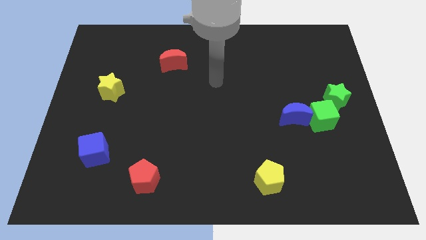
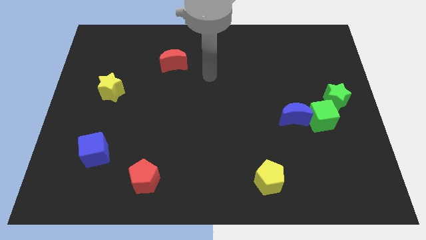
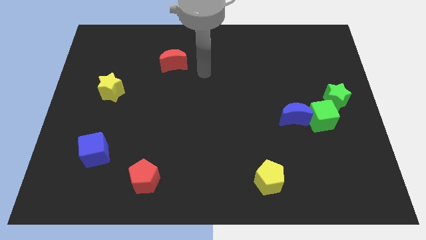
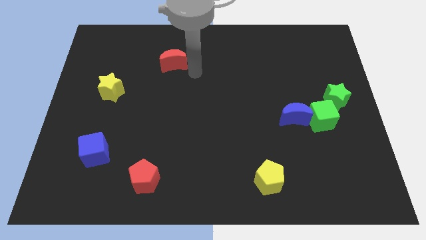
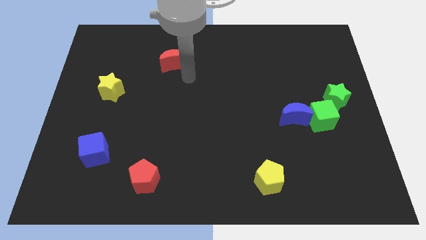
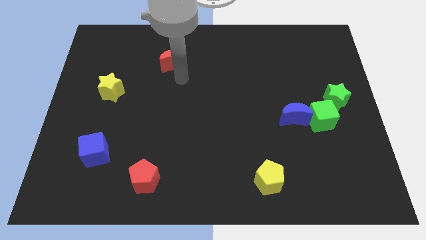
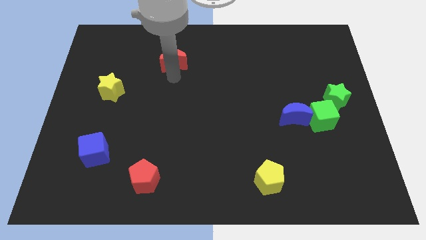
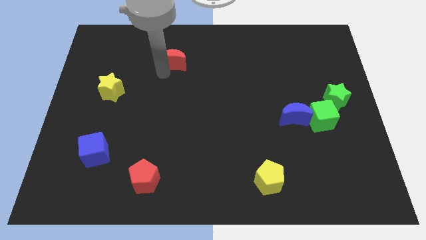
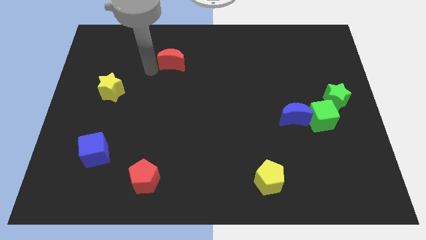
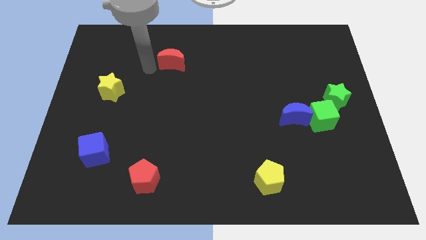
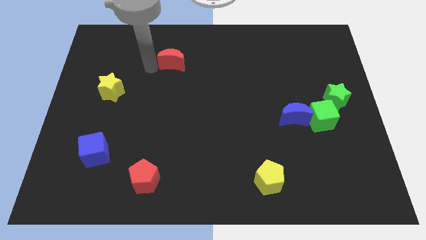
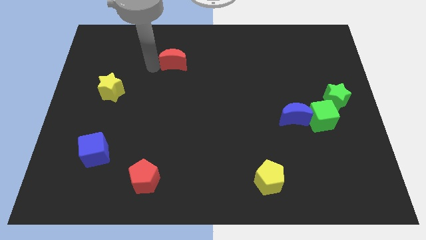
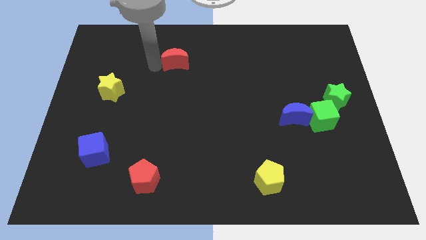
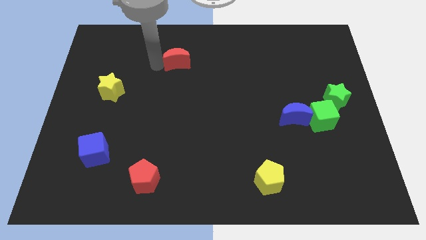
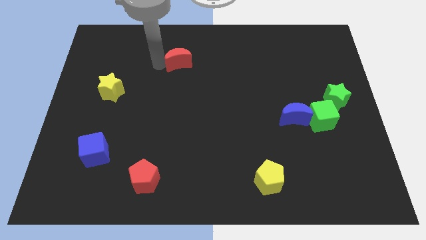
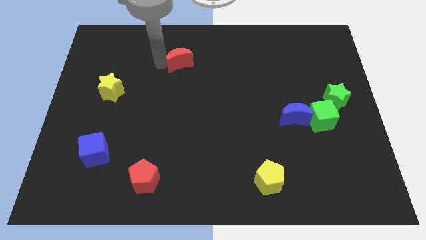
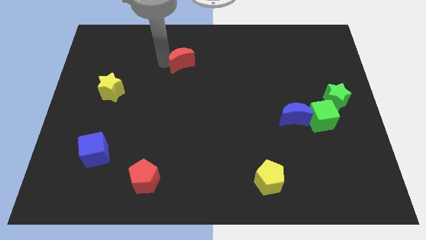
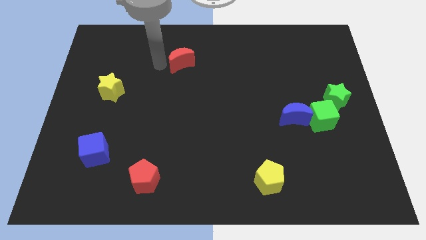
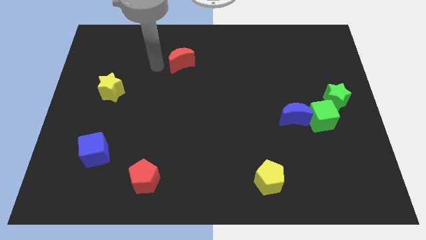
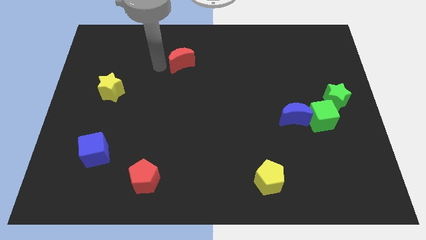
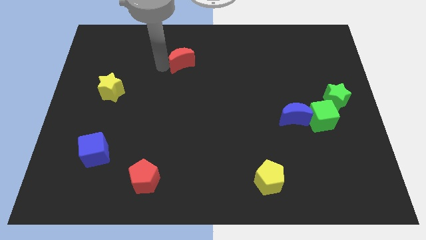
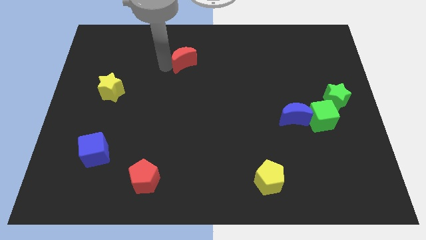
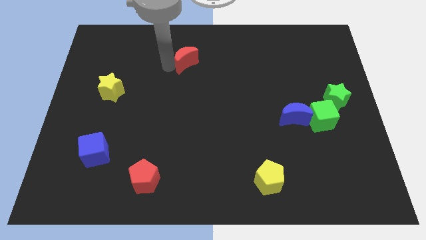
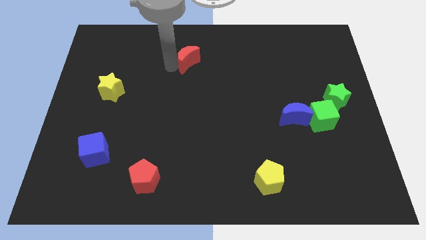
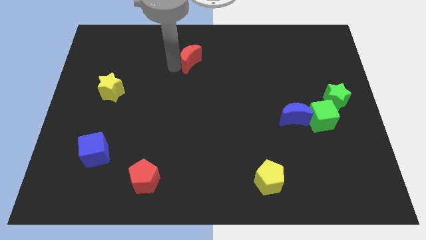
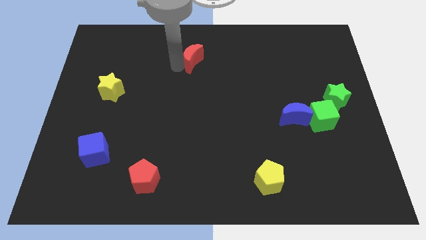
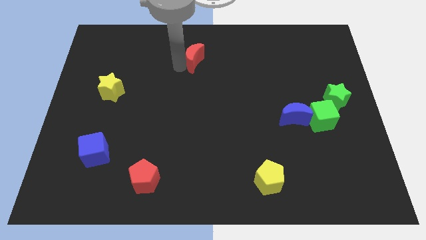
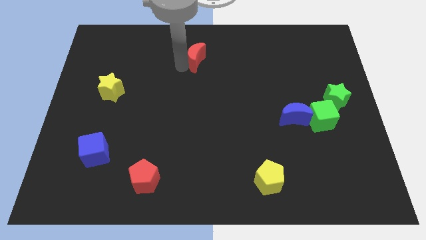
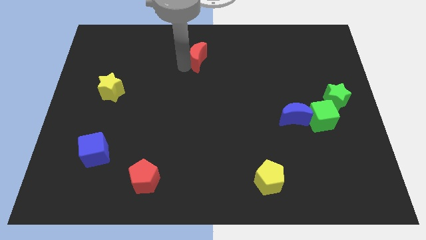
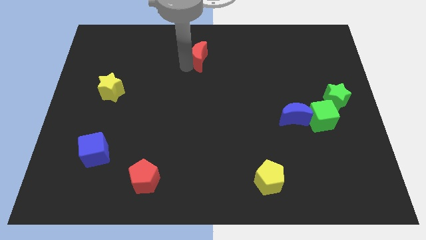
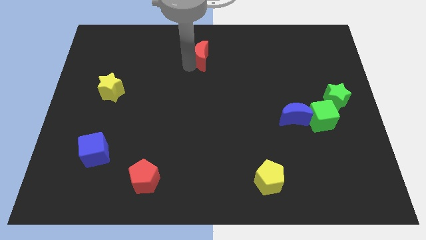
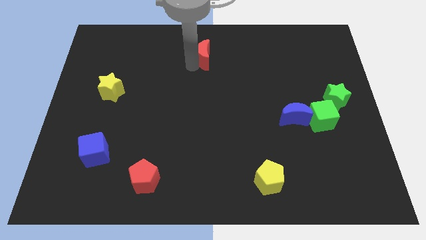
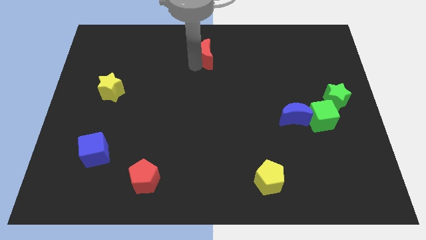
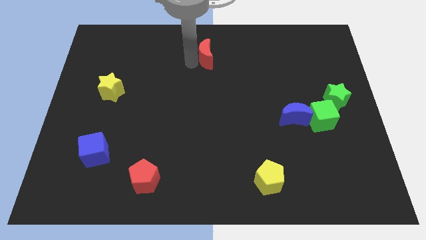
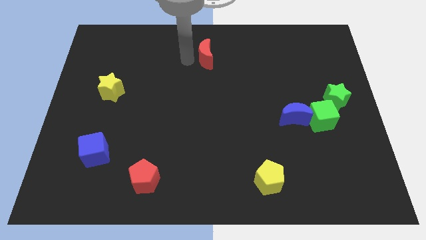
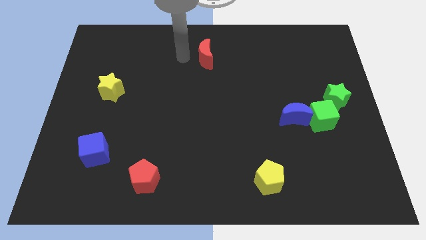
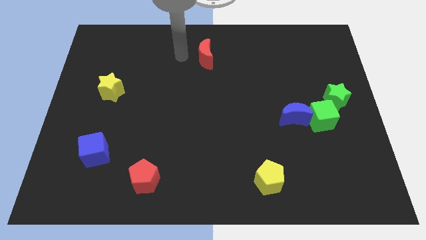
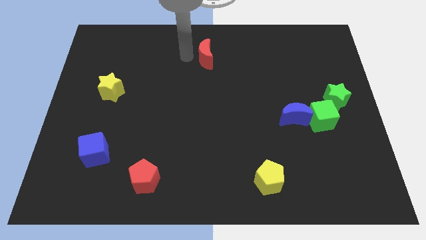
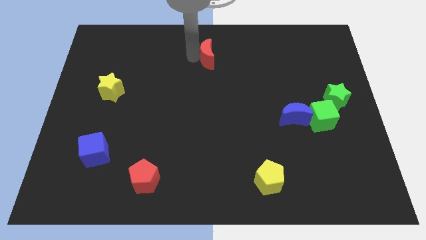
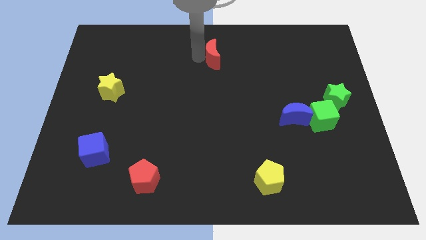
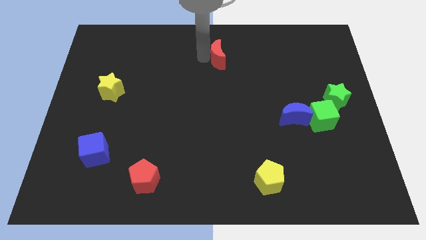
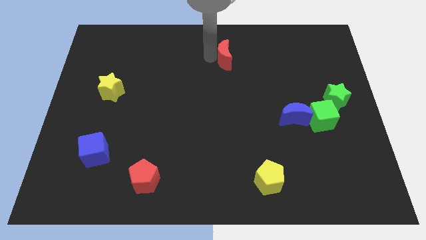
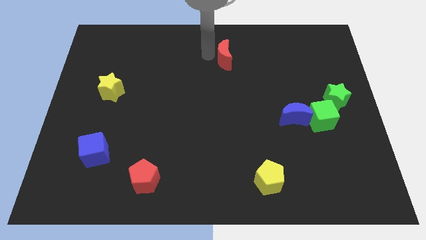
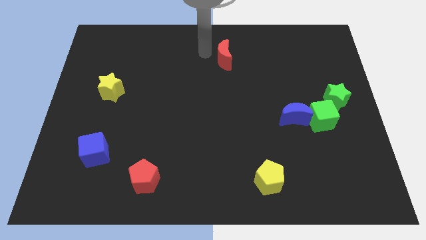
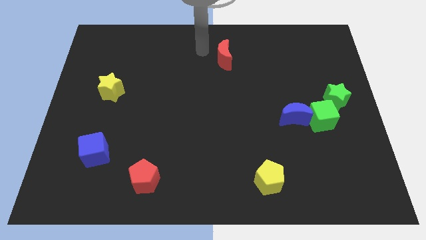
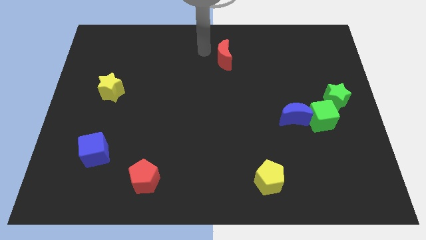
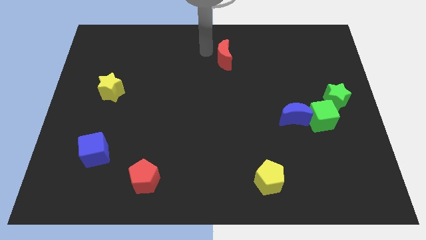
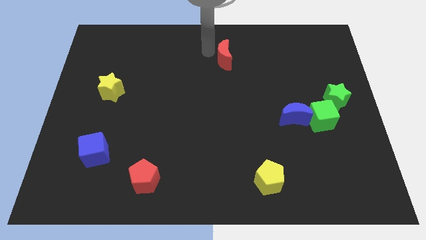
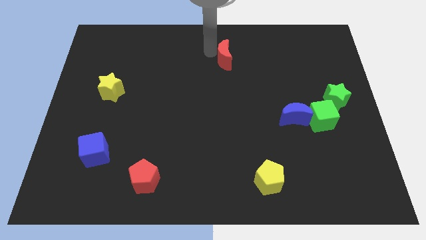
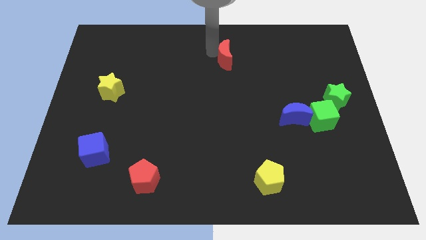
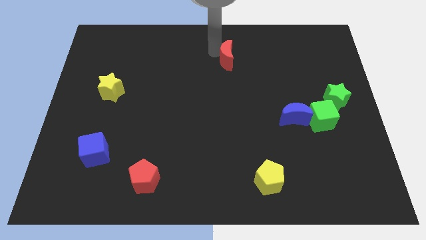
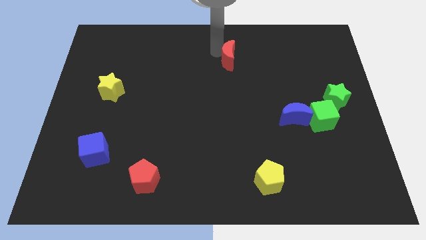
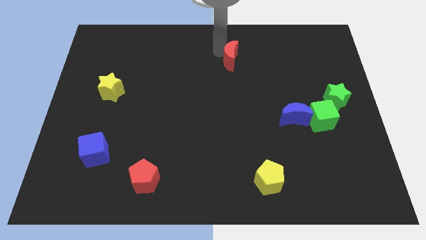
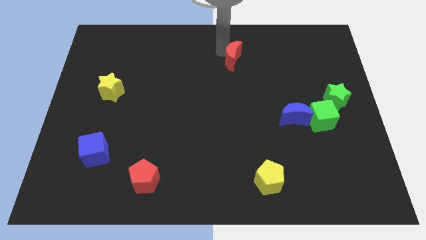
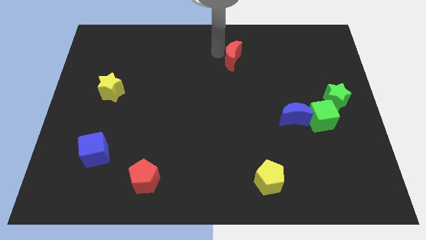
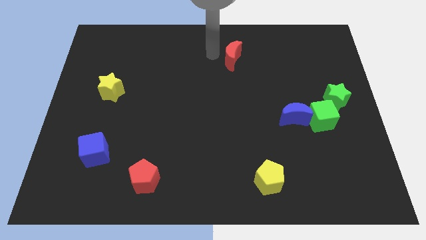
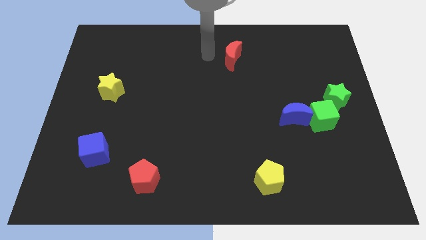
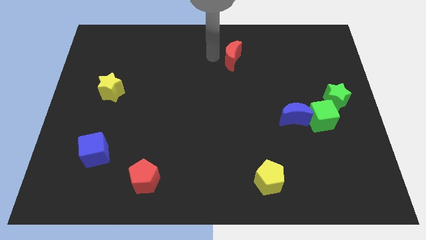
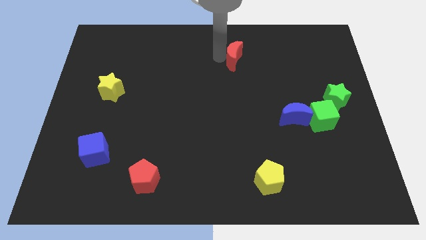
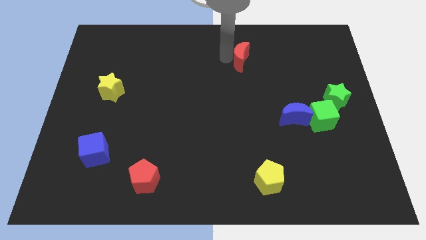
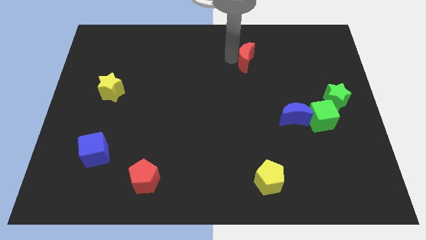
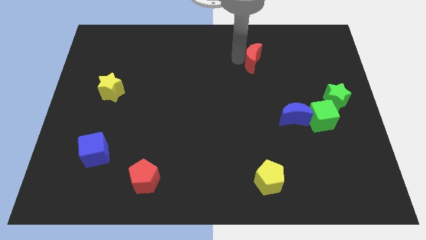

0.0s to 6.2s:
push the red moon right

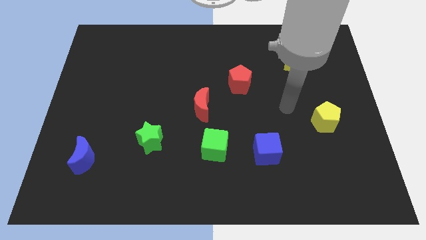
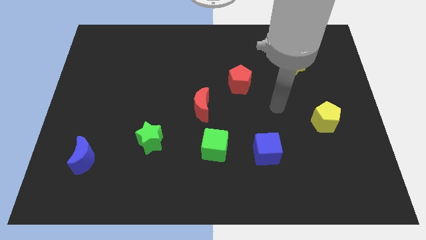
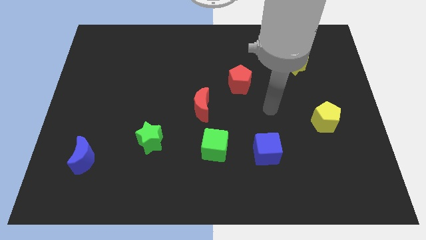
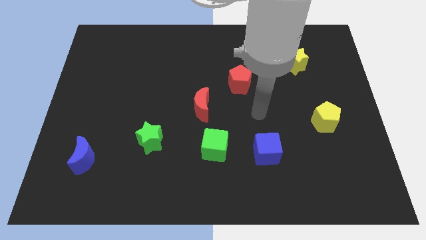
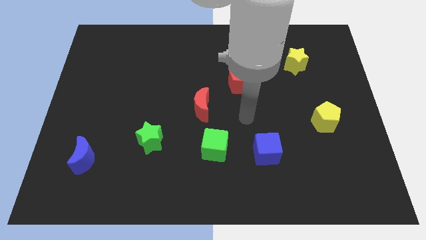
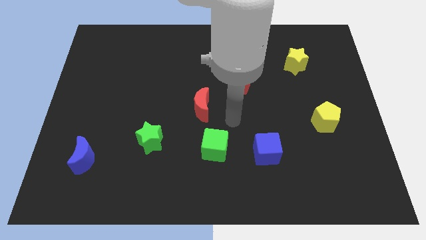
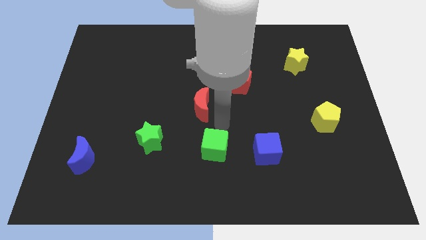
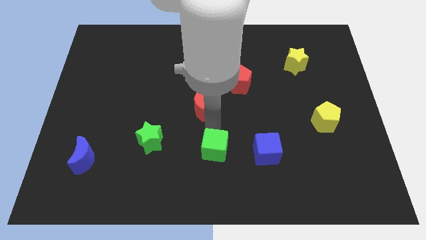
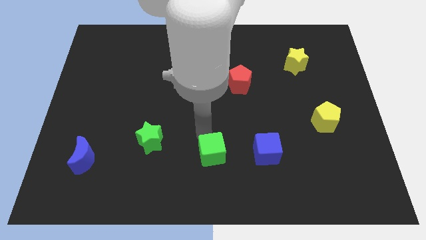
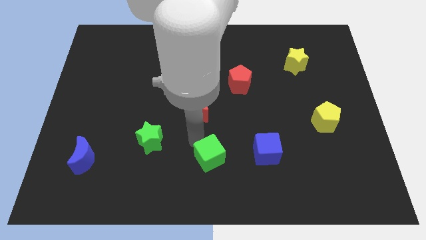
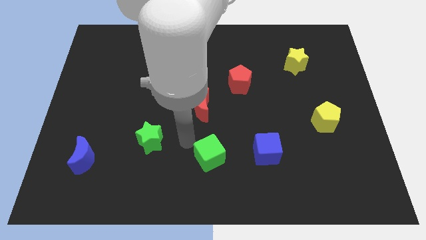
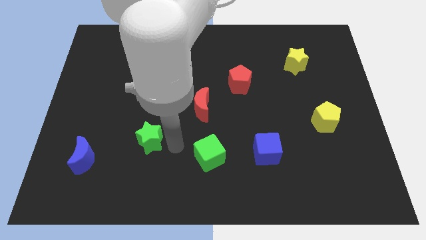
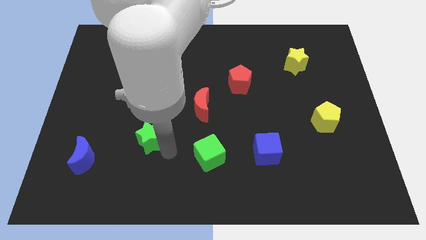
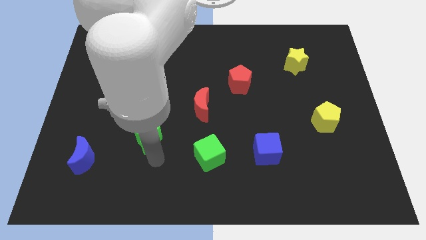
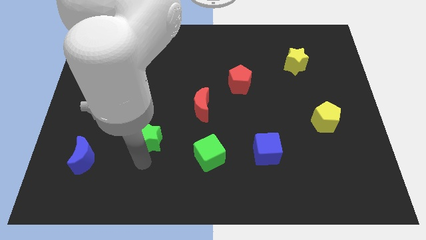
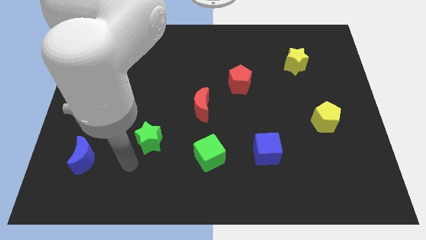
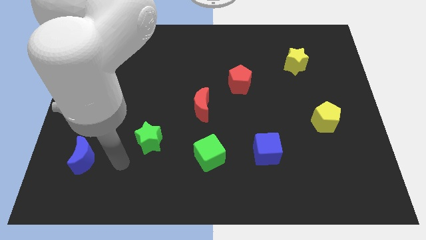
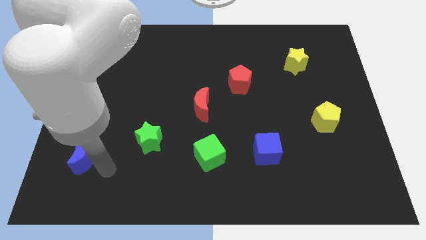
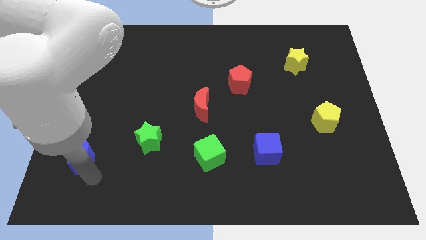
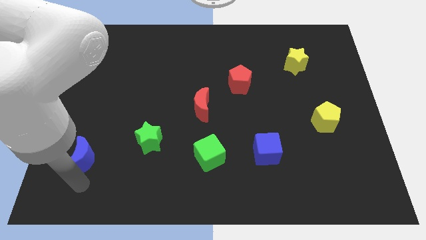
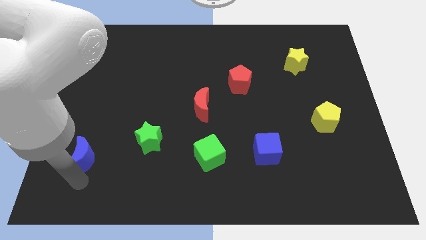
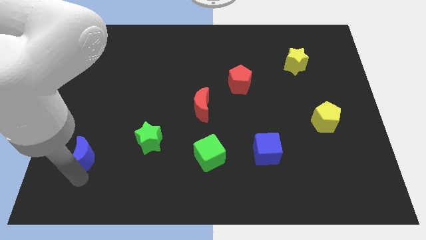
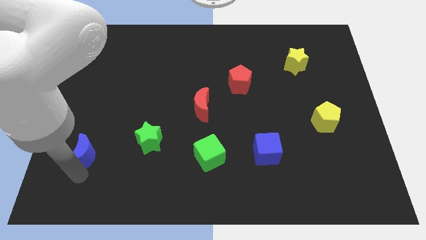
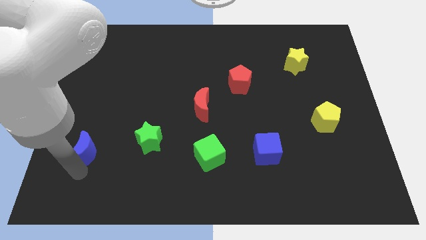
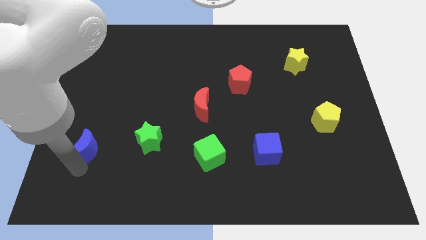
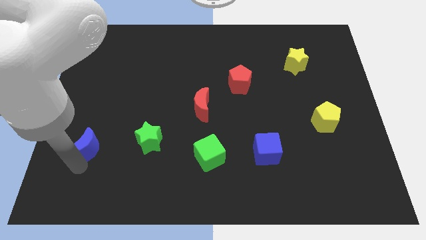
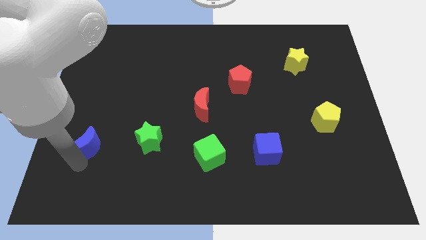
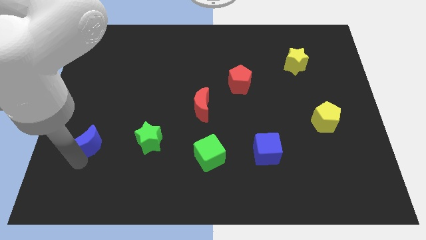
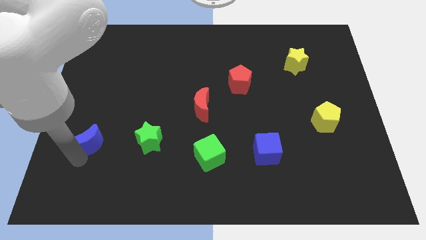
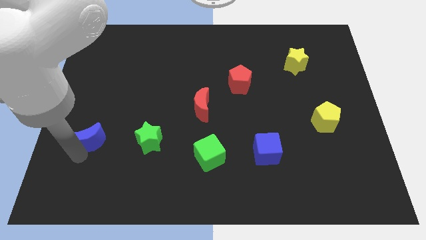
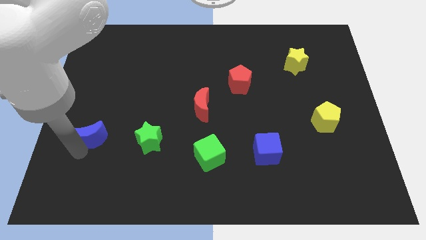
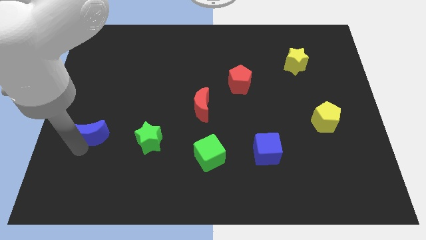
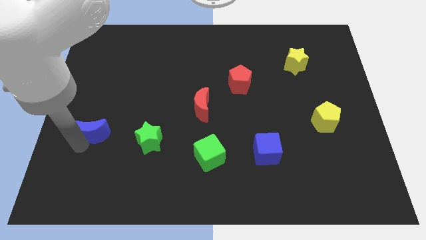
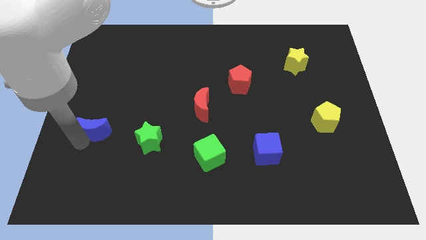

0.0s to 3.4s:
slide the blue moon a little bit up
